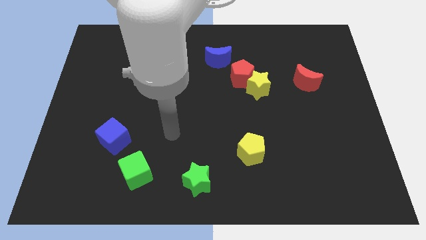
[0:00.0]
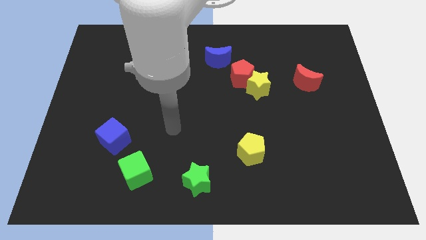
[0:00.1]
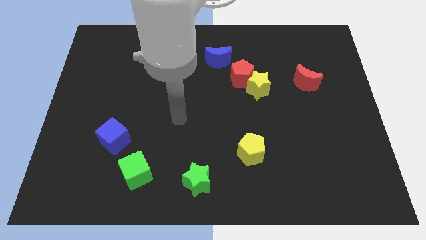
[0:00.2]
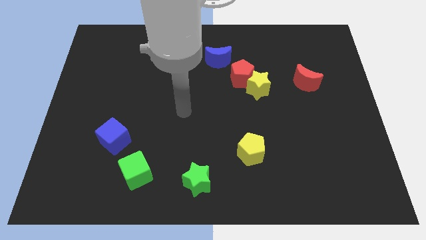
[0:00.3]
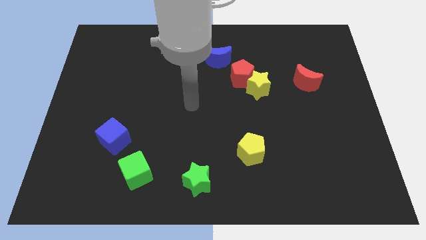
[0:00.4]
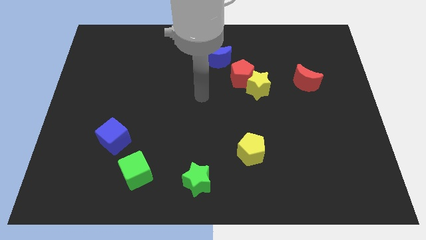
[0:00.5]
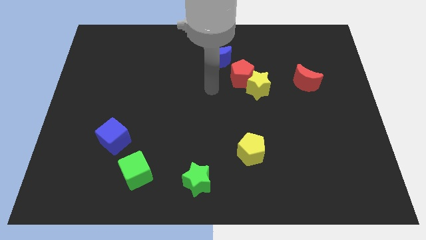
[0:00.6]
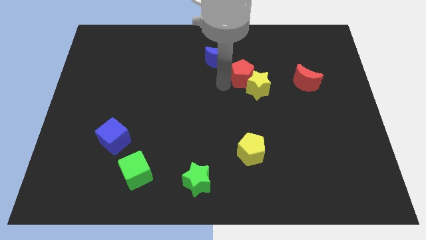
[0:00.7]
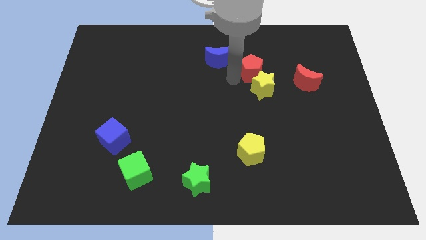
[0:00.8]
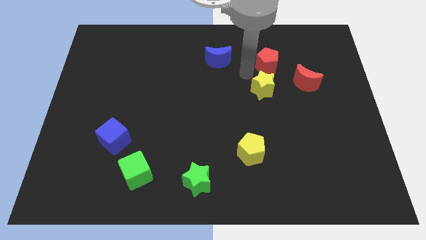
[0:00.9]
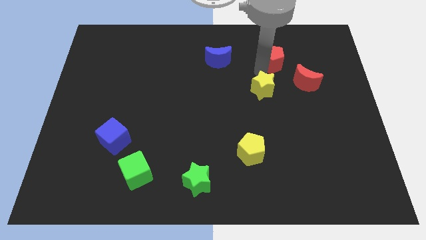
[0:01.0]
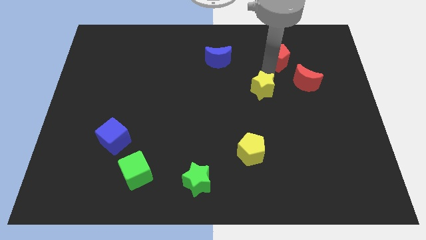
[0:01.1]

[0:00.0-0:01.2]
move the yellow star away from the red pentagon

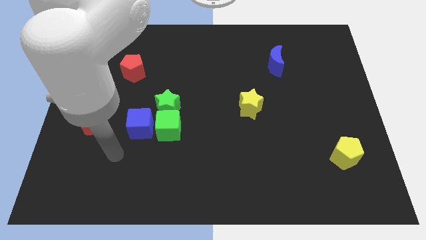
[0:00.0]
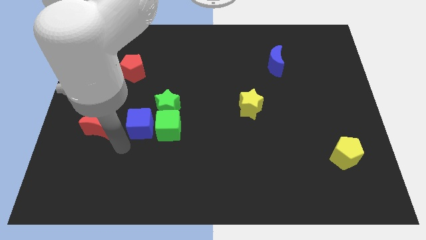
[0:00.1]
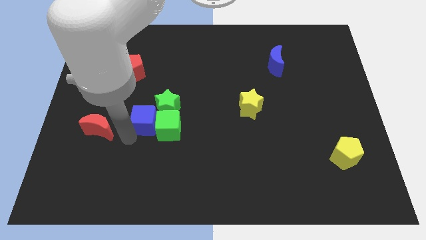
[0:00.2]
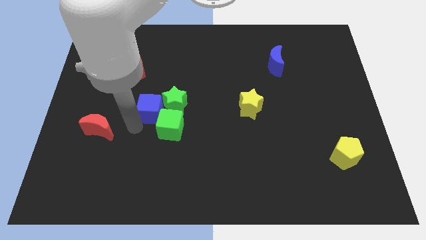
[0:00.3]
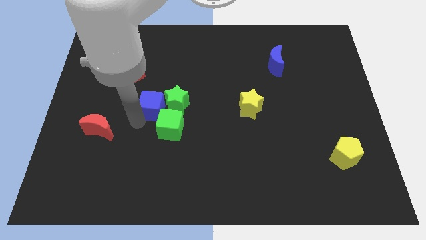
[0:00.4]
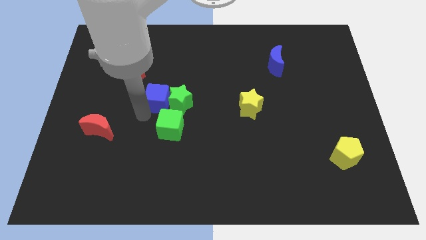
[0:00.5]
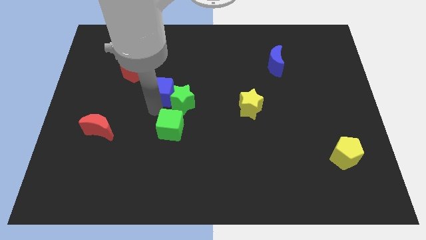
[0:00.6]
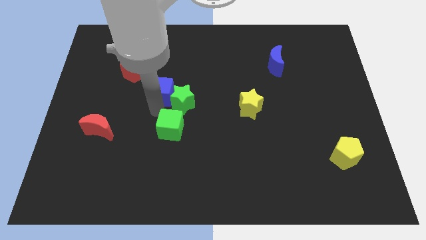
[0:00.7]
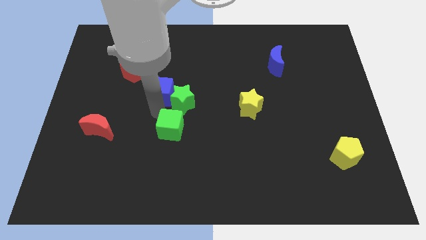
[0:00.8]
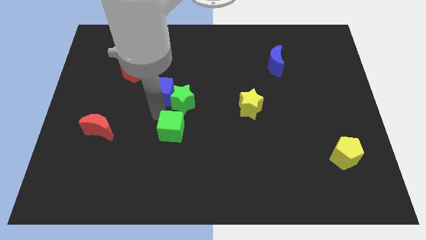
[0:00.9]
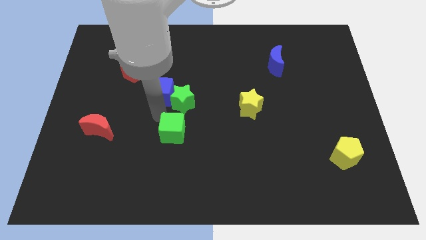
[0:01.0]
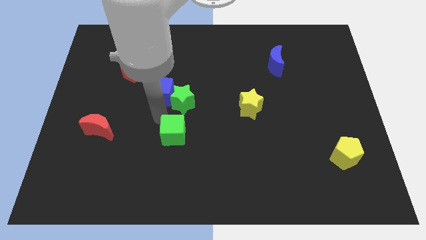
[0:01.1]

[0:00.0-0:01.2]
pull the green cube apart from the green star and blue cube

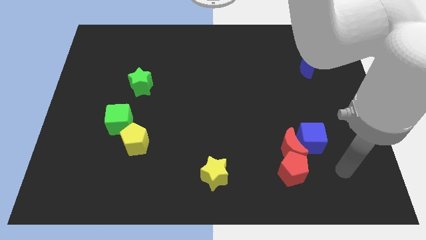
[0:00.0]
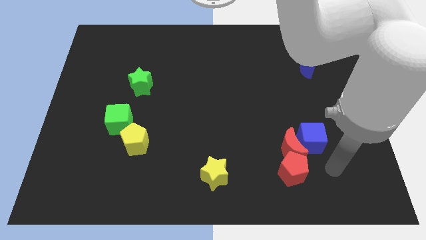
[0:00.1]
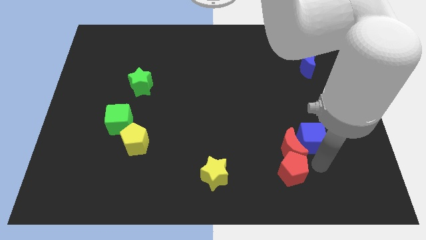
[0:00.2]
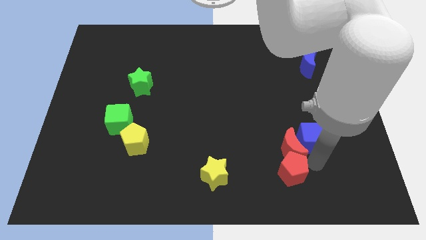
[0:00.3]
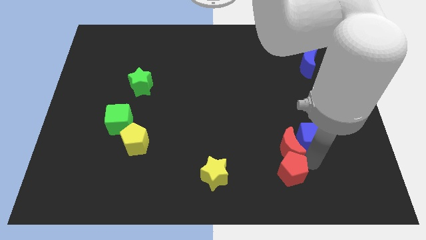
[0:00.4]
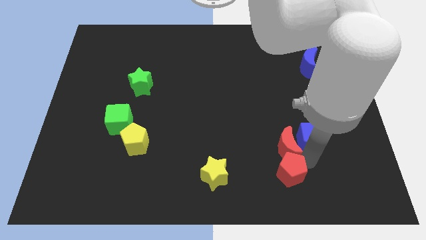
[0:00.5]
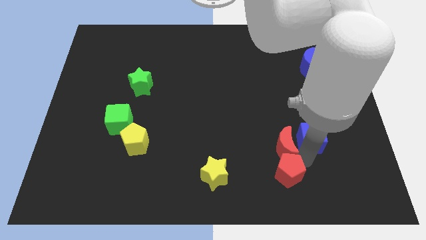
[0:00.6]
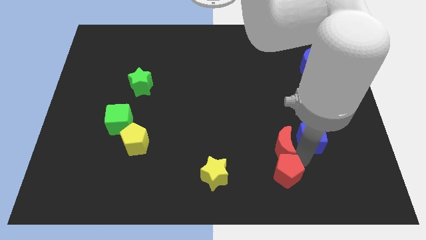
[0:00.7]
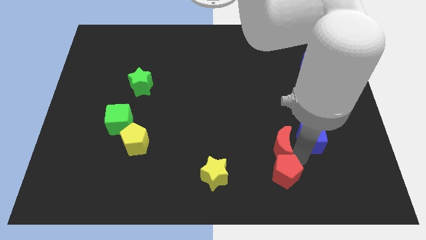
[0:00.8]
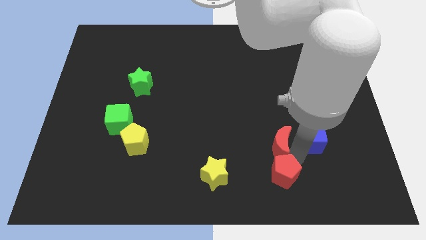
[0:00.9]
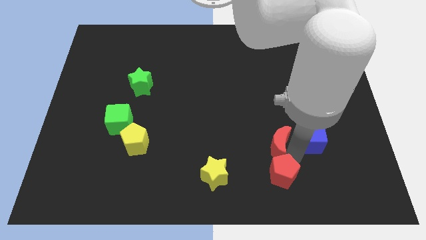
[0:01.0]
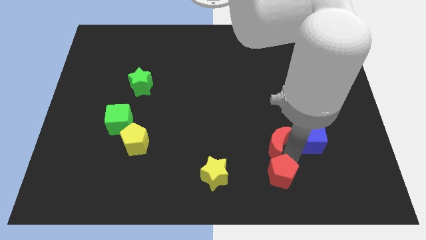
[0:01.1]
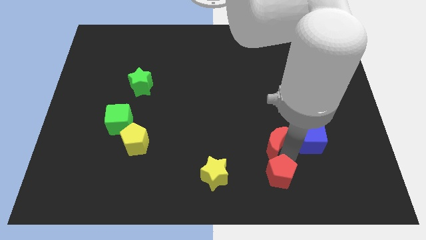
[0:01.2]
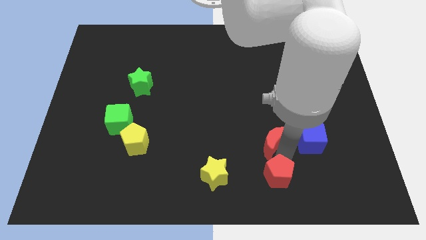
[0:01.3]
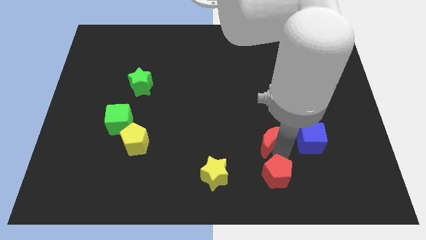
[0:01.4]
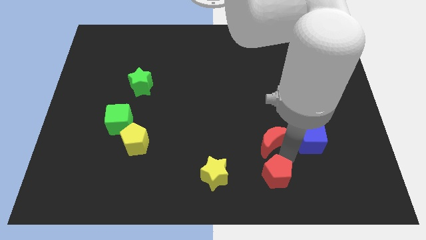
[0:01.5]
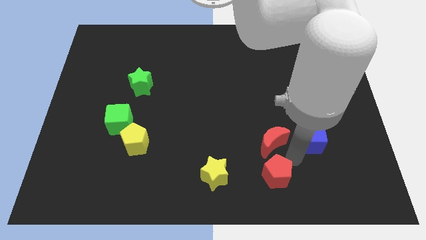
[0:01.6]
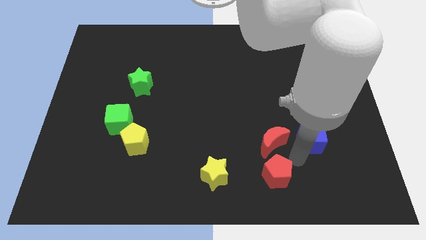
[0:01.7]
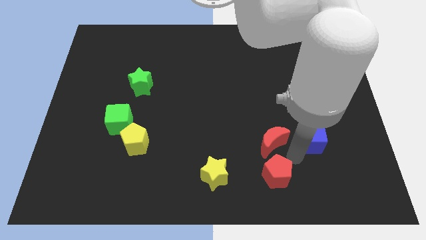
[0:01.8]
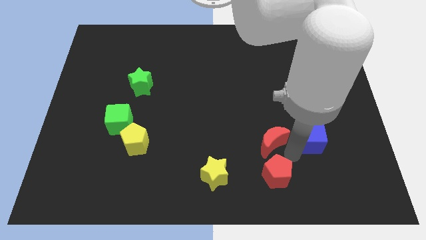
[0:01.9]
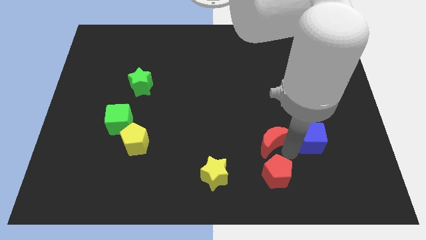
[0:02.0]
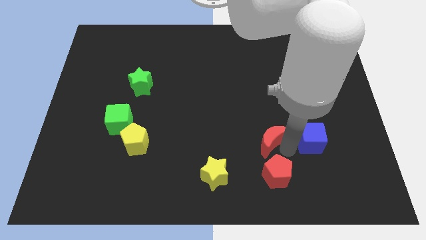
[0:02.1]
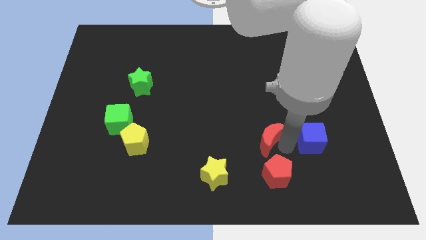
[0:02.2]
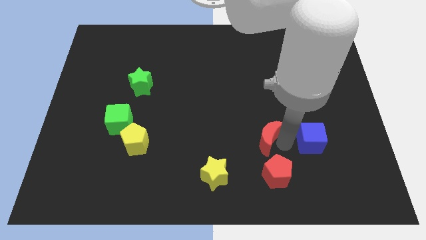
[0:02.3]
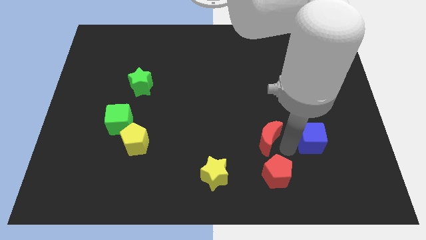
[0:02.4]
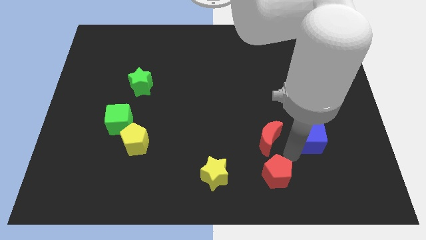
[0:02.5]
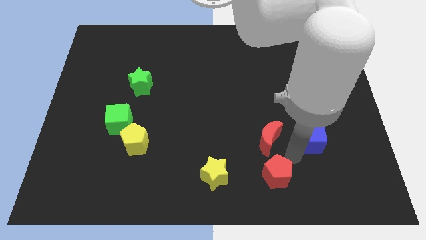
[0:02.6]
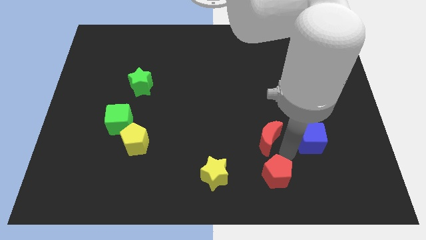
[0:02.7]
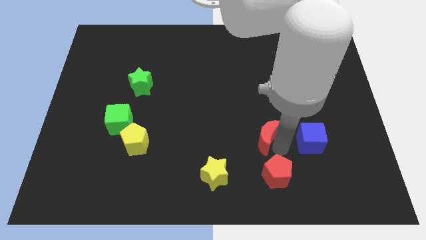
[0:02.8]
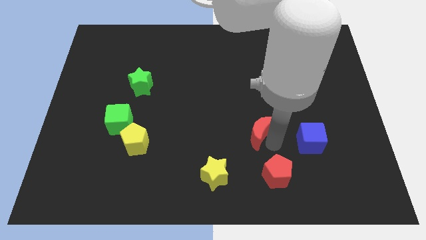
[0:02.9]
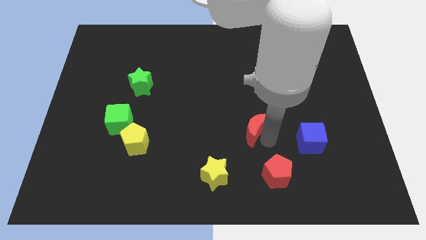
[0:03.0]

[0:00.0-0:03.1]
separate the red moon from the blue cube and red pentagon

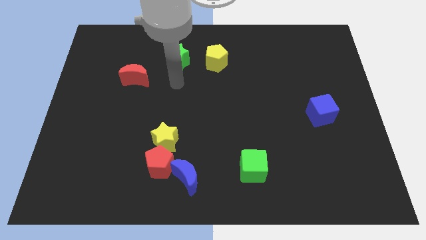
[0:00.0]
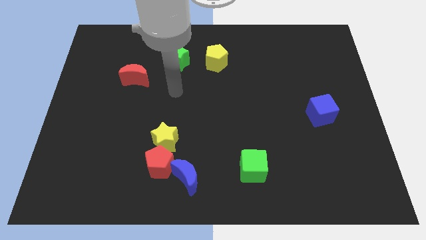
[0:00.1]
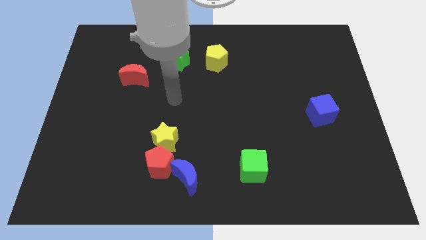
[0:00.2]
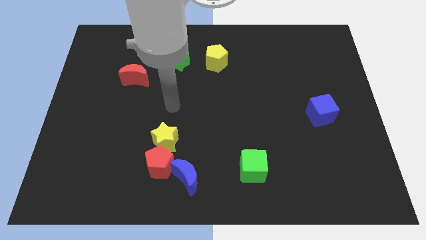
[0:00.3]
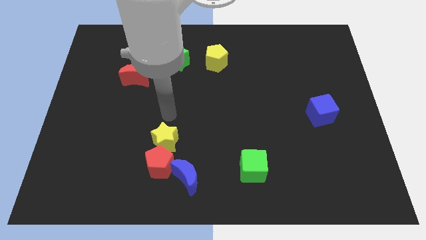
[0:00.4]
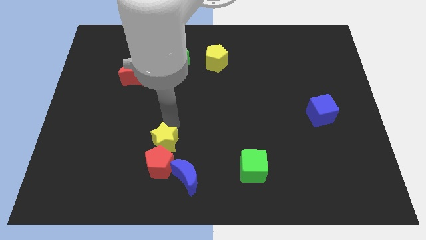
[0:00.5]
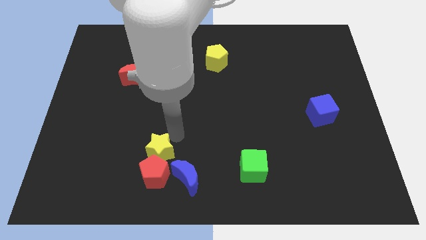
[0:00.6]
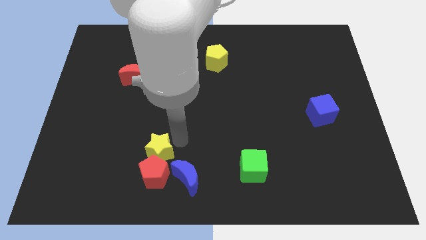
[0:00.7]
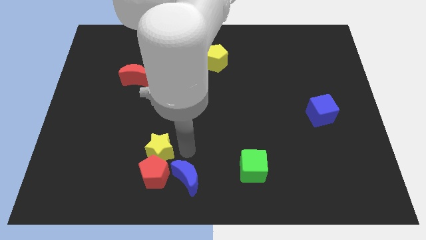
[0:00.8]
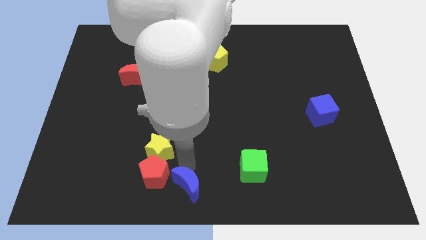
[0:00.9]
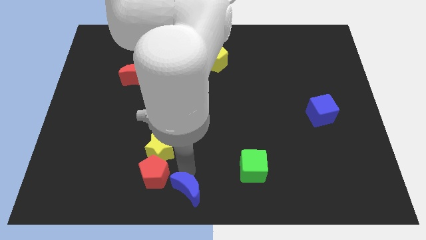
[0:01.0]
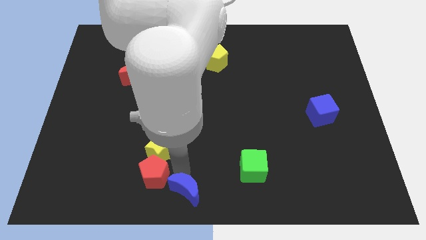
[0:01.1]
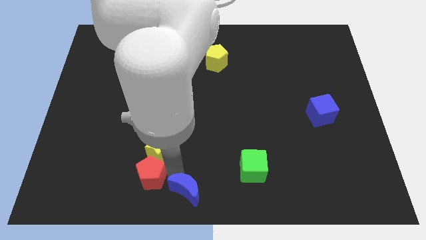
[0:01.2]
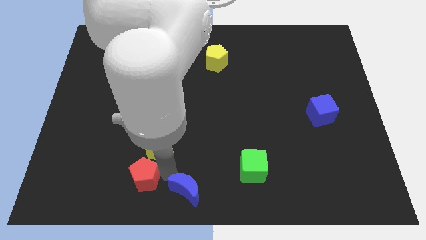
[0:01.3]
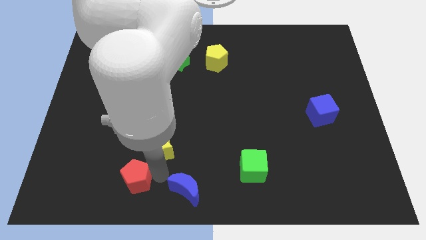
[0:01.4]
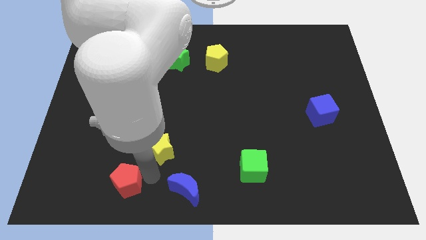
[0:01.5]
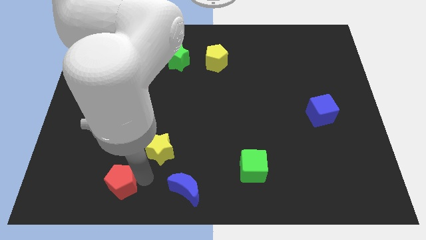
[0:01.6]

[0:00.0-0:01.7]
separate the red pentagon from the yellow star and blue moon

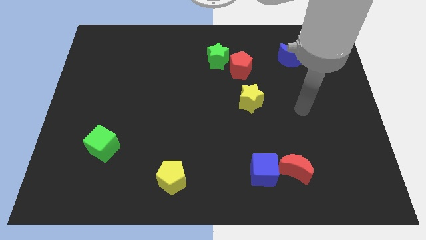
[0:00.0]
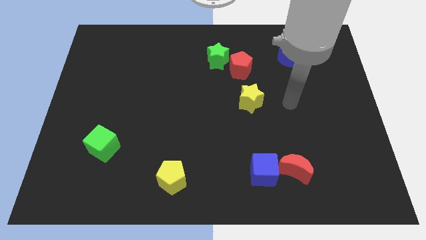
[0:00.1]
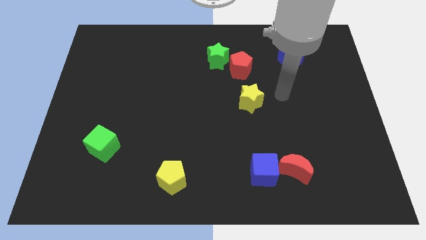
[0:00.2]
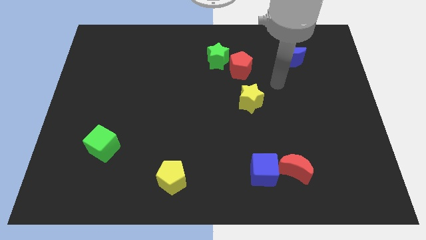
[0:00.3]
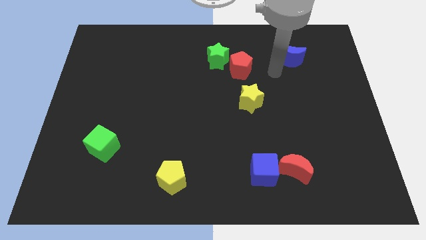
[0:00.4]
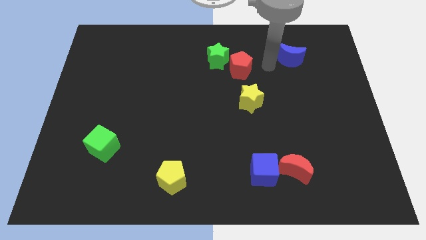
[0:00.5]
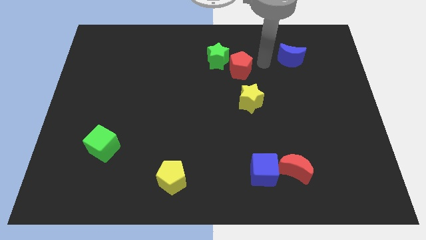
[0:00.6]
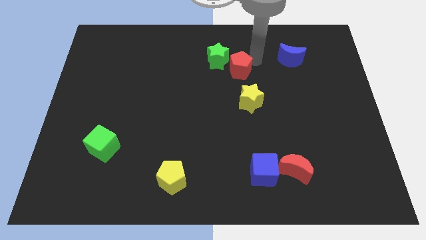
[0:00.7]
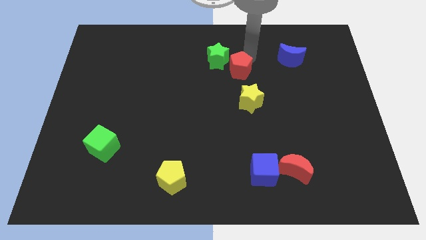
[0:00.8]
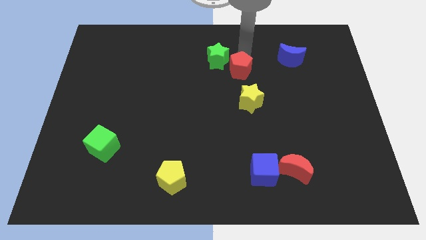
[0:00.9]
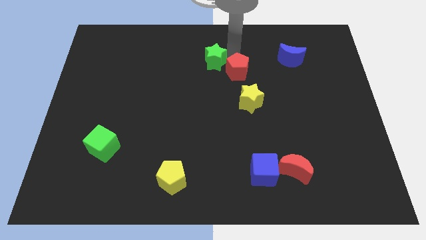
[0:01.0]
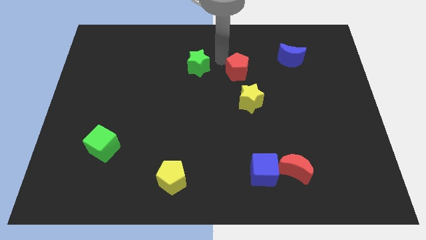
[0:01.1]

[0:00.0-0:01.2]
move the red pentagon away from the green star

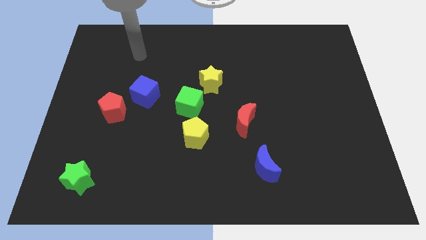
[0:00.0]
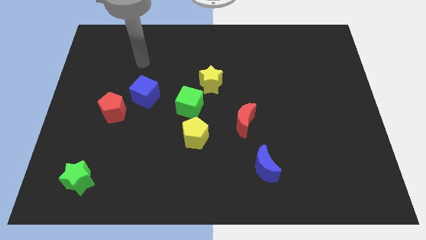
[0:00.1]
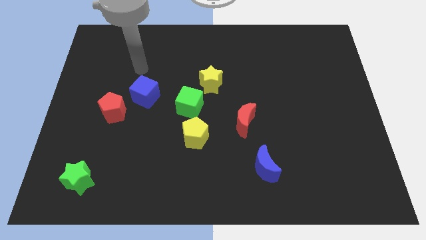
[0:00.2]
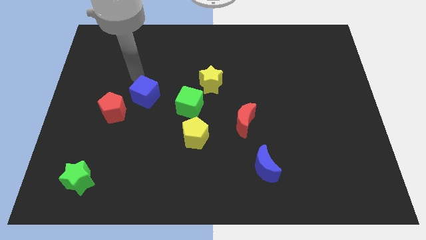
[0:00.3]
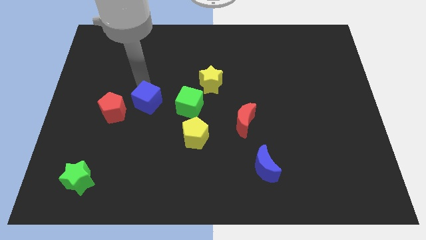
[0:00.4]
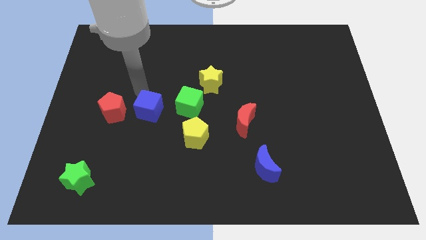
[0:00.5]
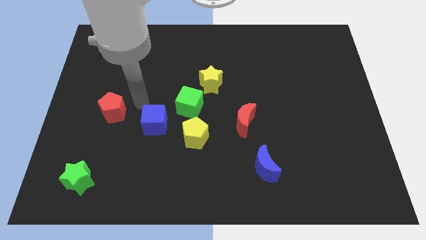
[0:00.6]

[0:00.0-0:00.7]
separate the red pentagon from the blue cube
